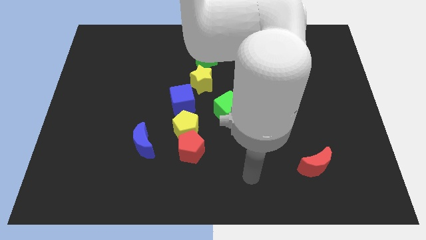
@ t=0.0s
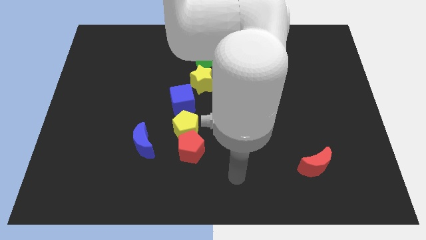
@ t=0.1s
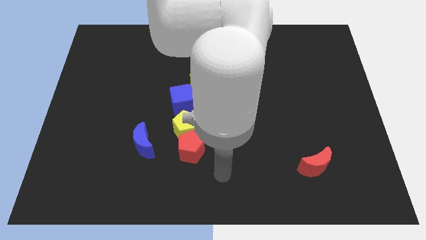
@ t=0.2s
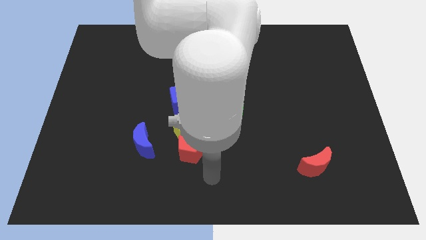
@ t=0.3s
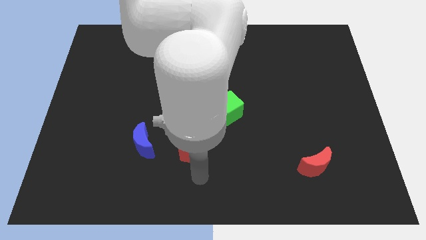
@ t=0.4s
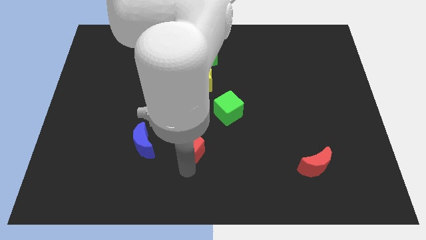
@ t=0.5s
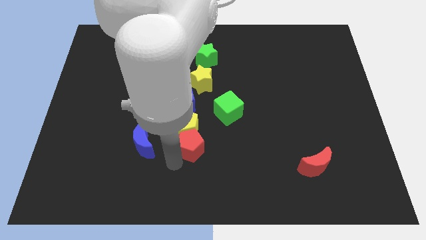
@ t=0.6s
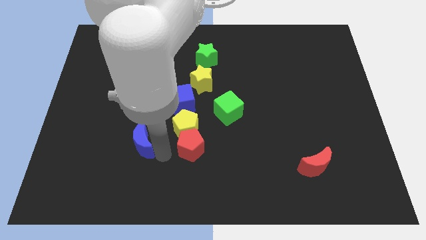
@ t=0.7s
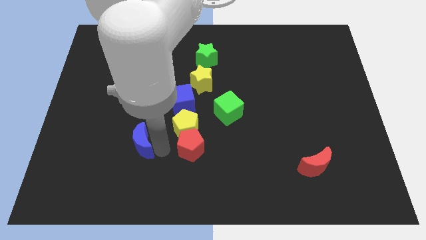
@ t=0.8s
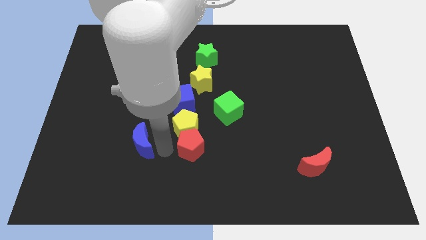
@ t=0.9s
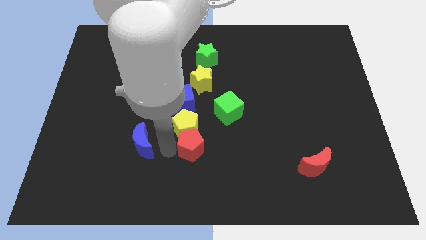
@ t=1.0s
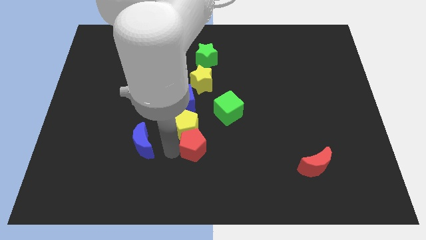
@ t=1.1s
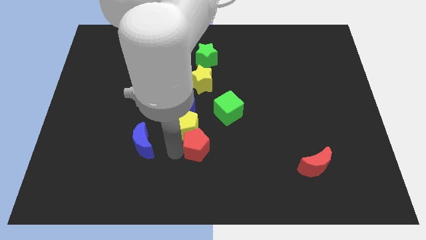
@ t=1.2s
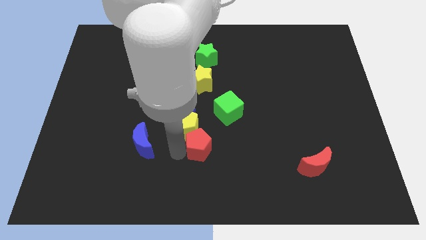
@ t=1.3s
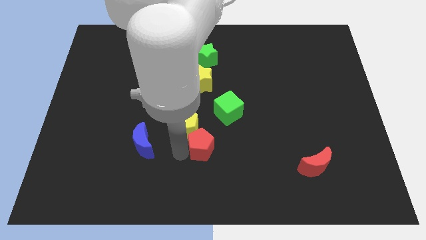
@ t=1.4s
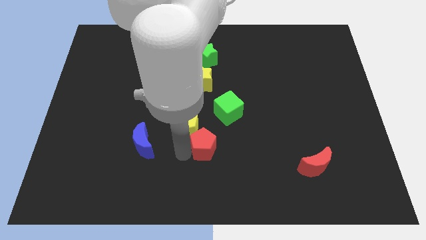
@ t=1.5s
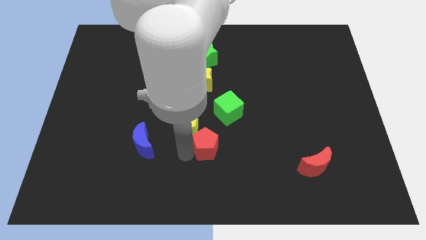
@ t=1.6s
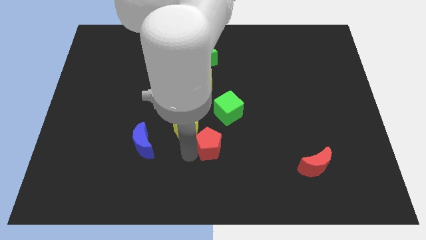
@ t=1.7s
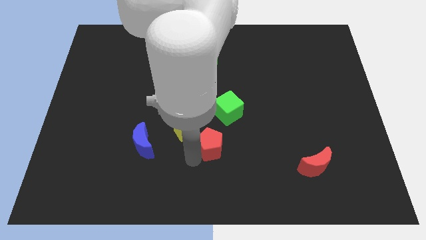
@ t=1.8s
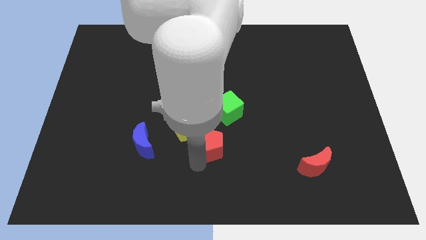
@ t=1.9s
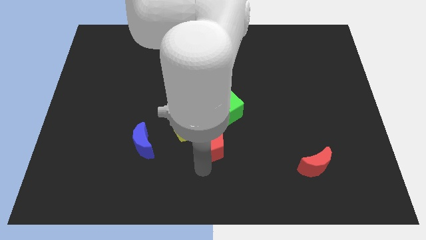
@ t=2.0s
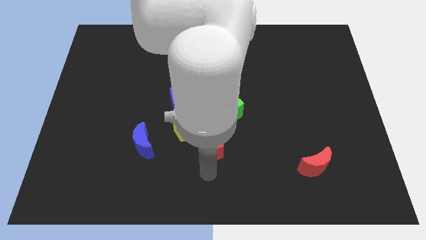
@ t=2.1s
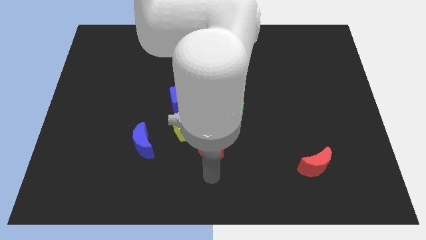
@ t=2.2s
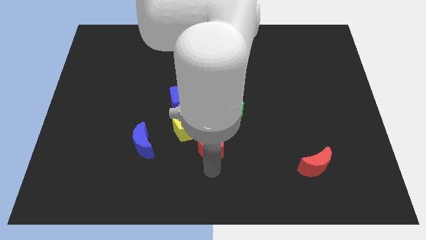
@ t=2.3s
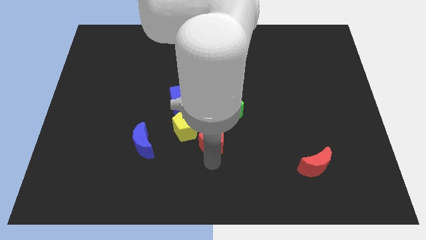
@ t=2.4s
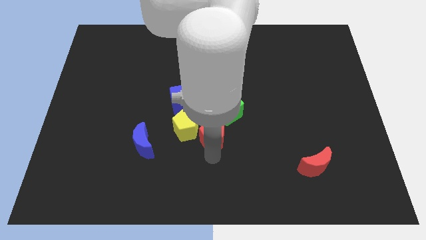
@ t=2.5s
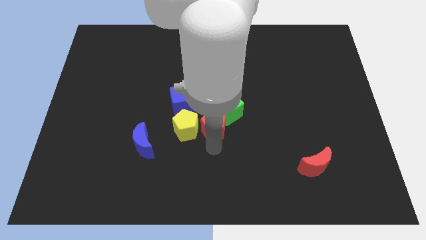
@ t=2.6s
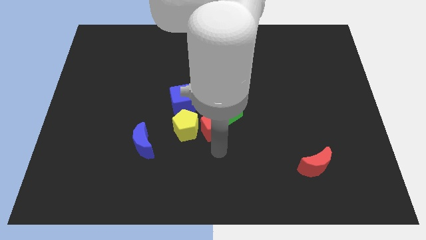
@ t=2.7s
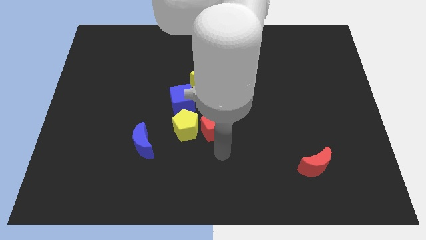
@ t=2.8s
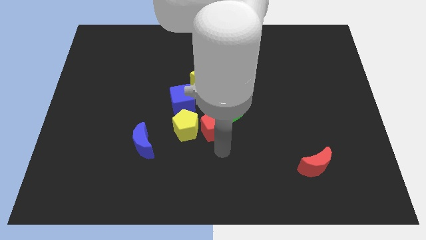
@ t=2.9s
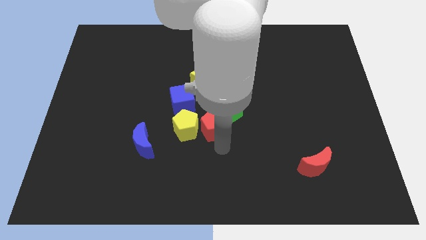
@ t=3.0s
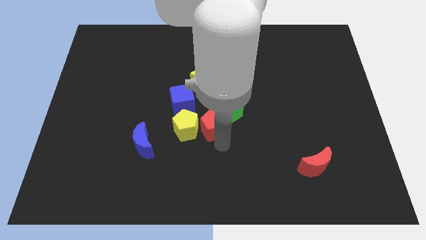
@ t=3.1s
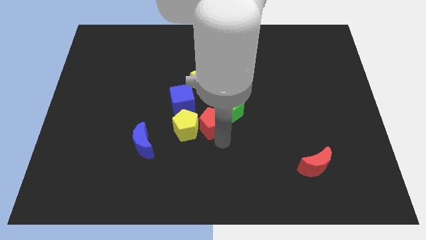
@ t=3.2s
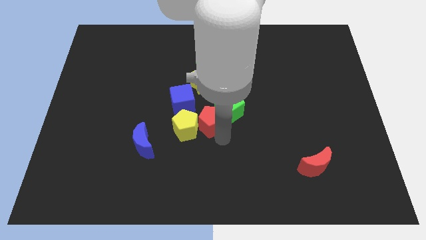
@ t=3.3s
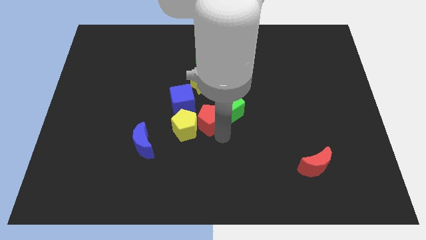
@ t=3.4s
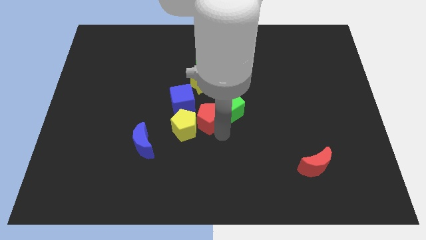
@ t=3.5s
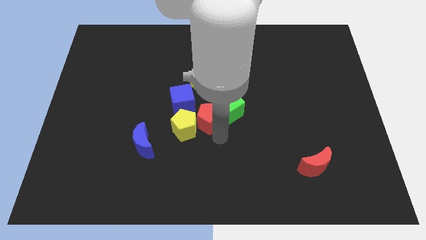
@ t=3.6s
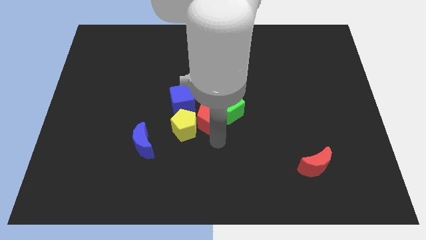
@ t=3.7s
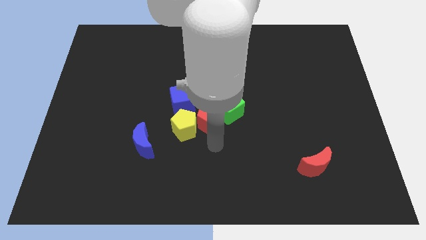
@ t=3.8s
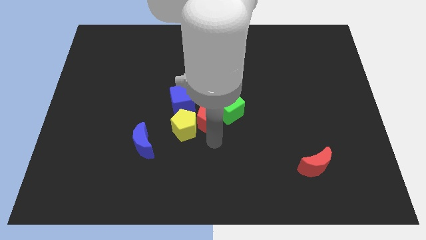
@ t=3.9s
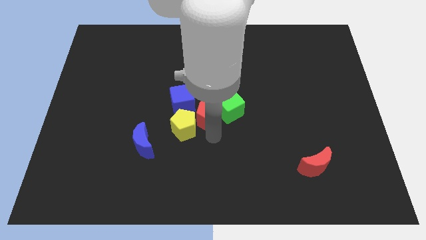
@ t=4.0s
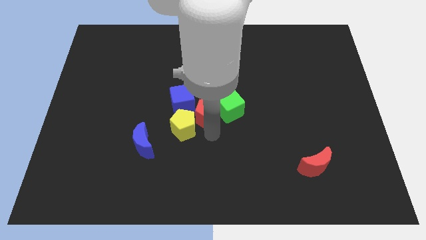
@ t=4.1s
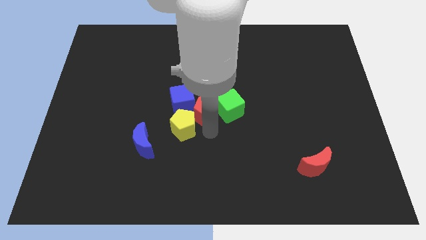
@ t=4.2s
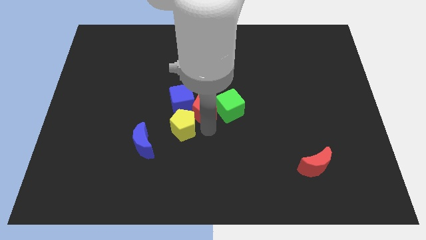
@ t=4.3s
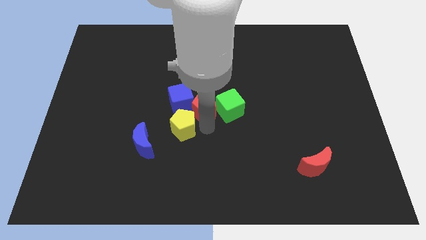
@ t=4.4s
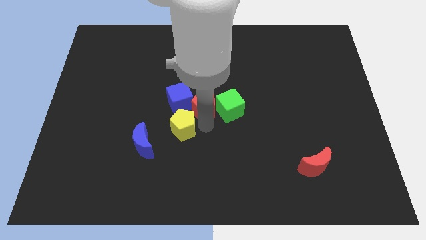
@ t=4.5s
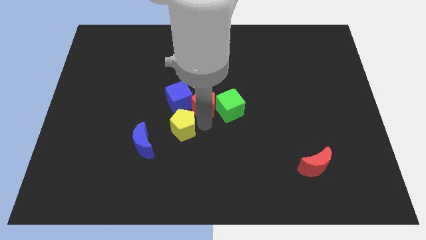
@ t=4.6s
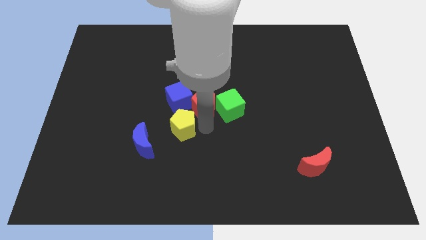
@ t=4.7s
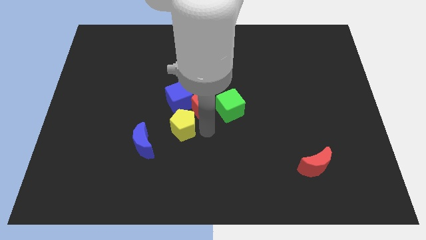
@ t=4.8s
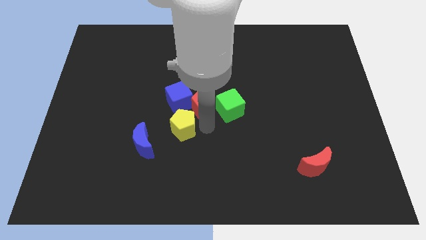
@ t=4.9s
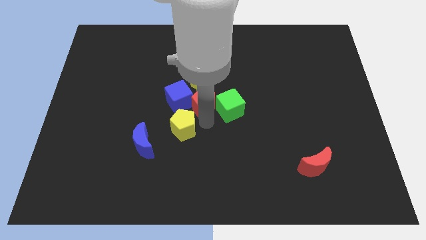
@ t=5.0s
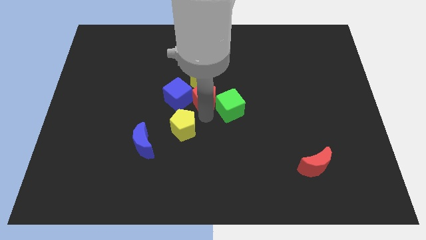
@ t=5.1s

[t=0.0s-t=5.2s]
slide the red pentagon towards the yellow star

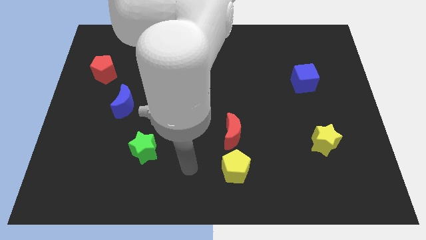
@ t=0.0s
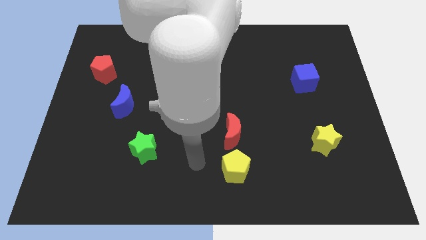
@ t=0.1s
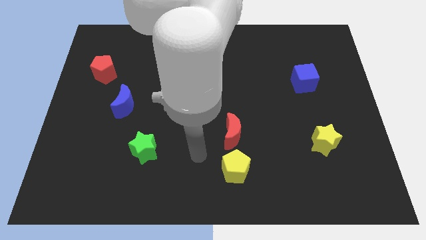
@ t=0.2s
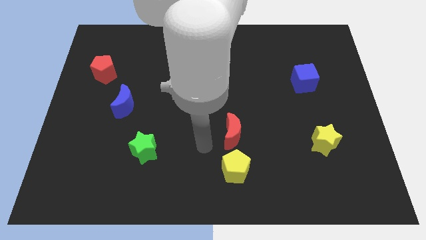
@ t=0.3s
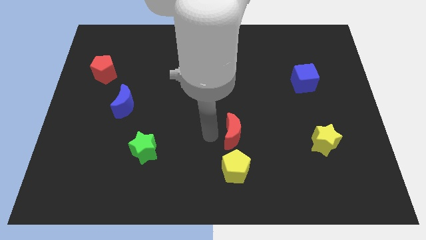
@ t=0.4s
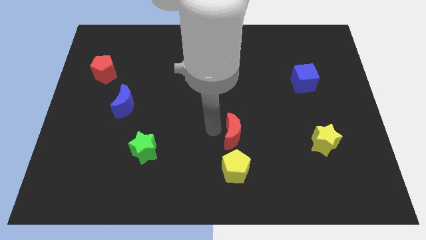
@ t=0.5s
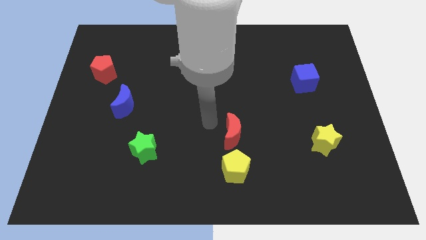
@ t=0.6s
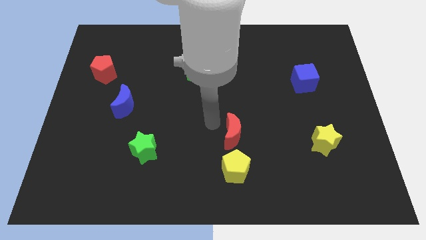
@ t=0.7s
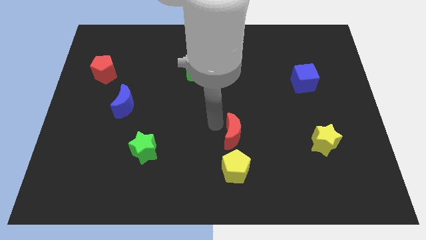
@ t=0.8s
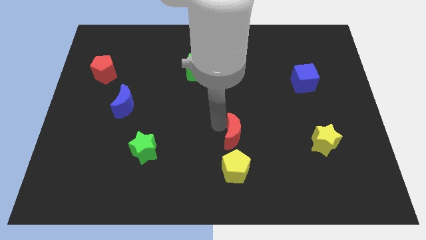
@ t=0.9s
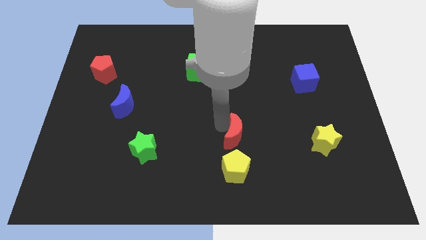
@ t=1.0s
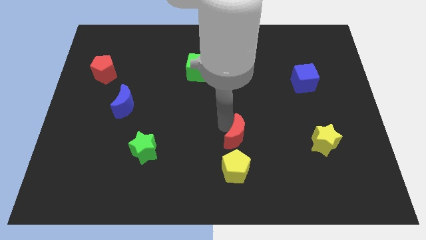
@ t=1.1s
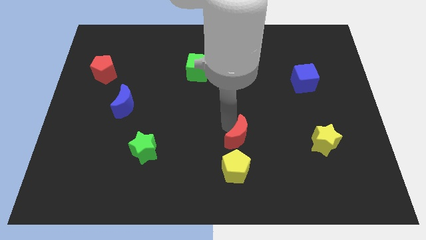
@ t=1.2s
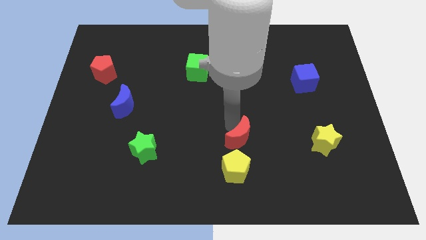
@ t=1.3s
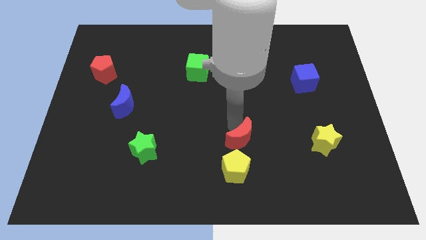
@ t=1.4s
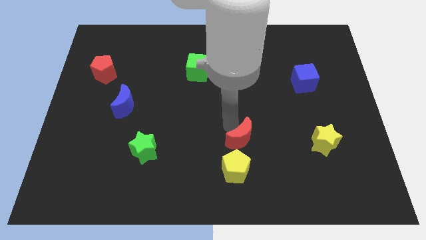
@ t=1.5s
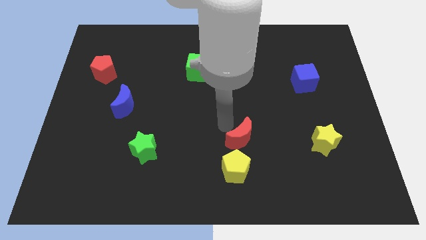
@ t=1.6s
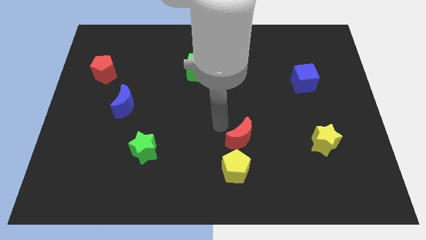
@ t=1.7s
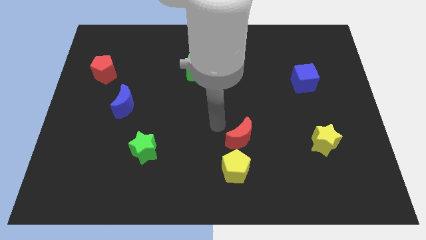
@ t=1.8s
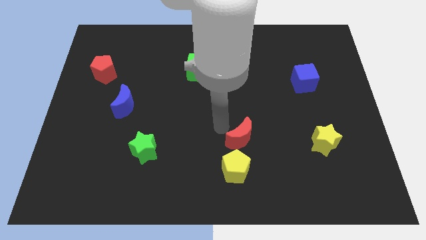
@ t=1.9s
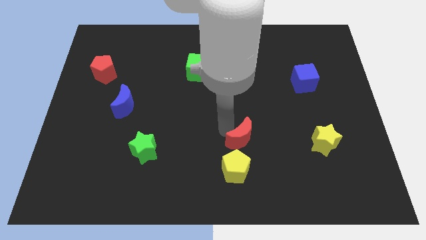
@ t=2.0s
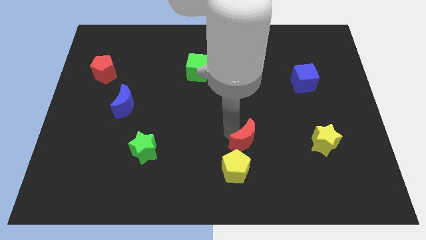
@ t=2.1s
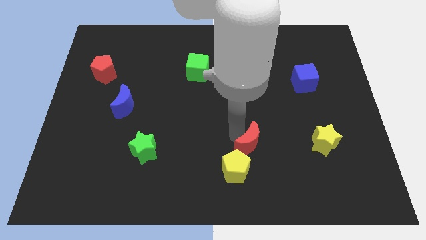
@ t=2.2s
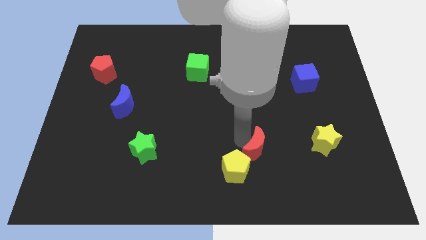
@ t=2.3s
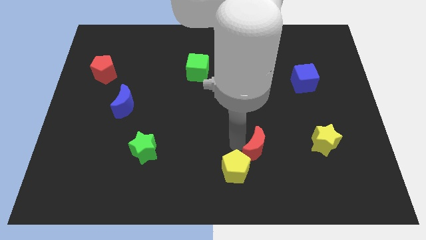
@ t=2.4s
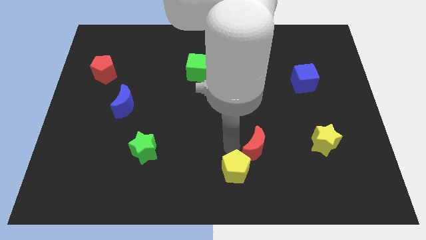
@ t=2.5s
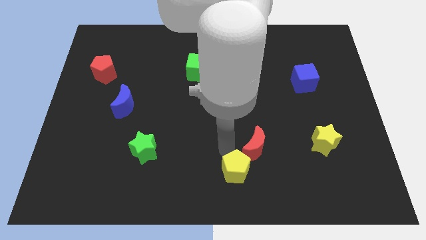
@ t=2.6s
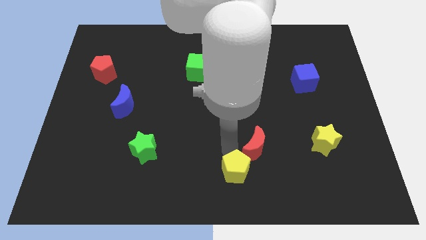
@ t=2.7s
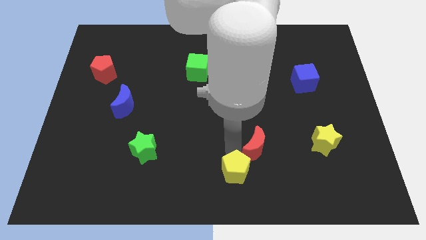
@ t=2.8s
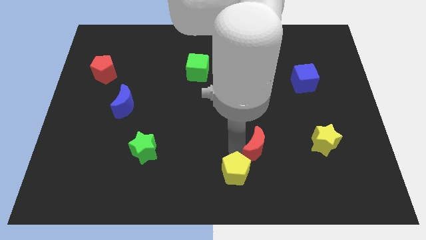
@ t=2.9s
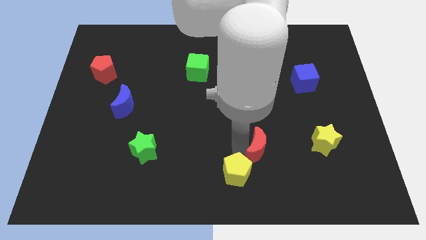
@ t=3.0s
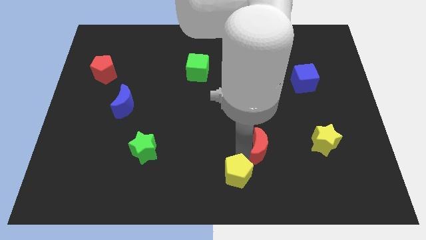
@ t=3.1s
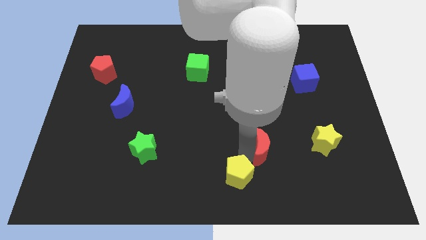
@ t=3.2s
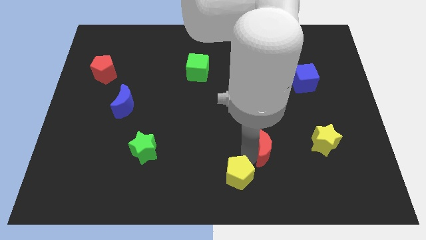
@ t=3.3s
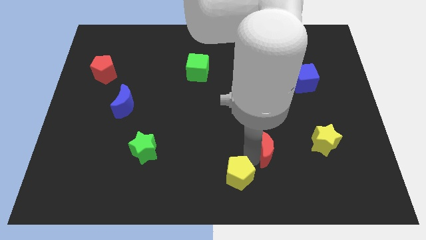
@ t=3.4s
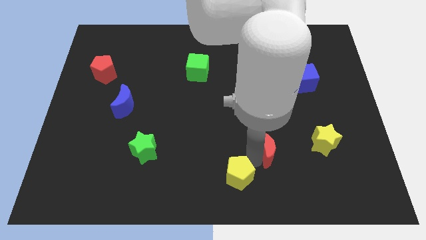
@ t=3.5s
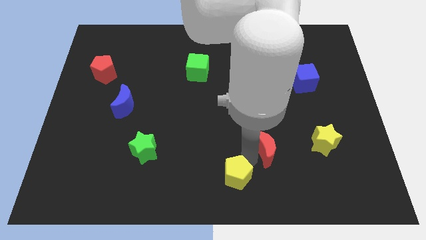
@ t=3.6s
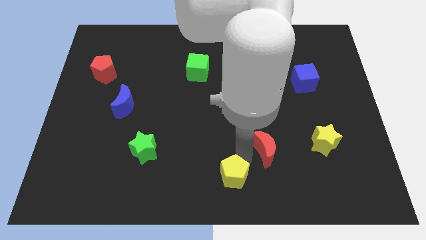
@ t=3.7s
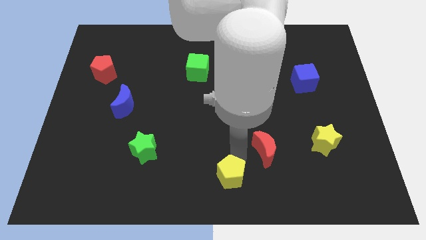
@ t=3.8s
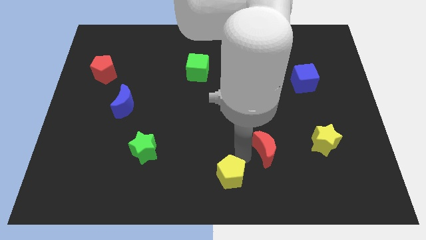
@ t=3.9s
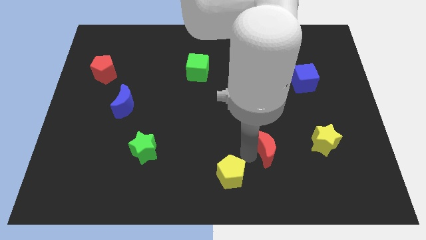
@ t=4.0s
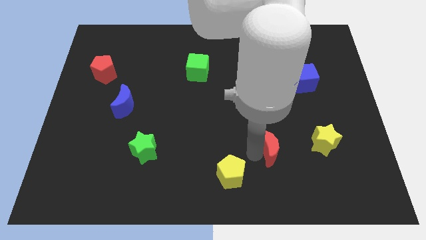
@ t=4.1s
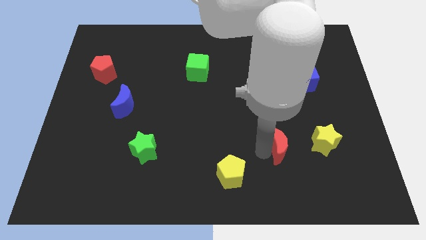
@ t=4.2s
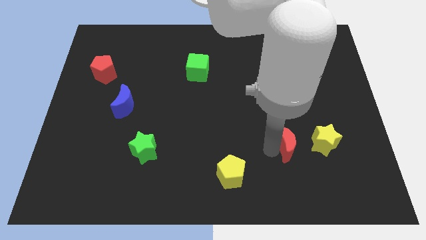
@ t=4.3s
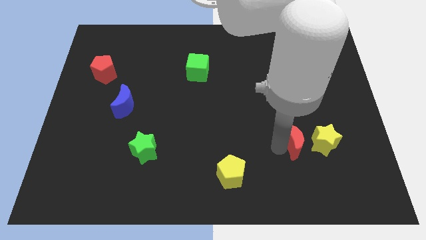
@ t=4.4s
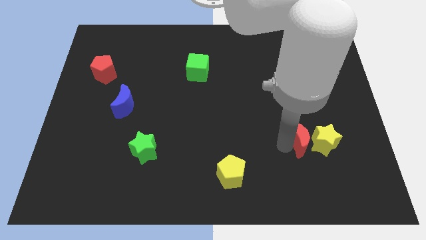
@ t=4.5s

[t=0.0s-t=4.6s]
slide the red moon close to the yellow star
